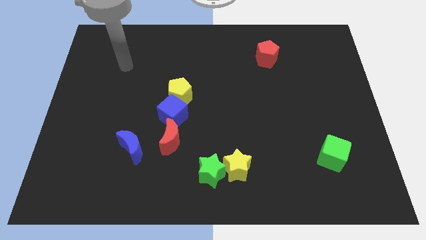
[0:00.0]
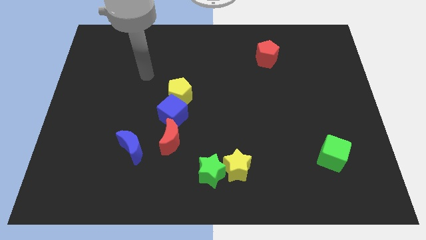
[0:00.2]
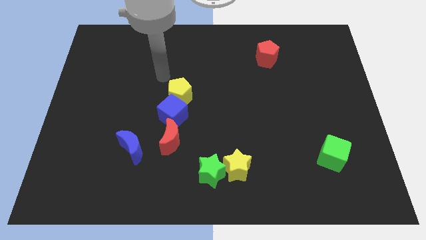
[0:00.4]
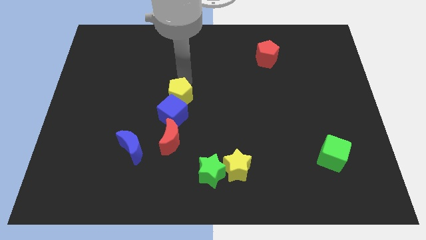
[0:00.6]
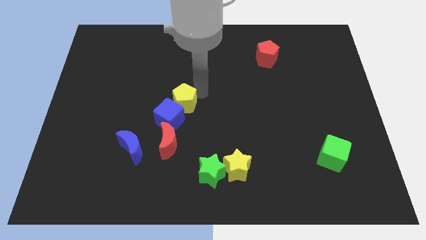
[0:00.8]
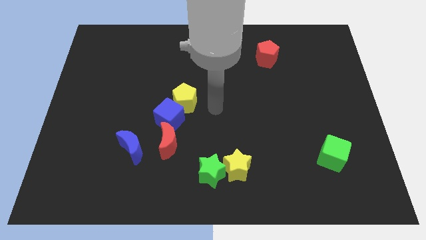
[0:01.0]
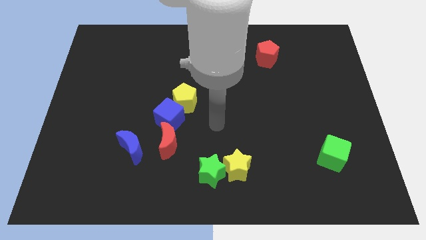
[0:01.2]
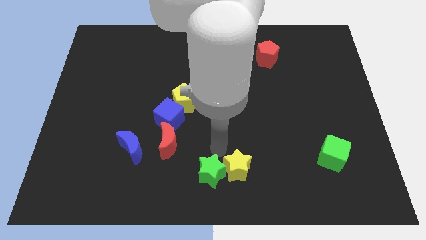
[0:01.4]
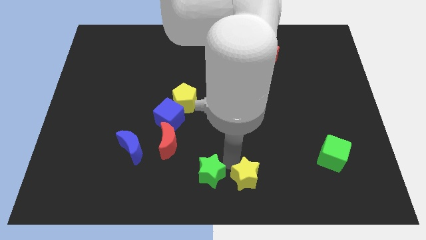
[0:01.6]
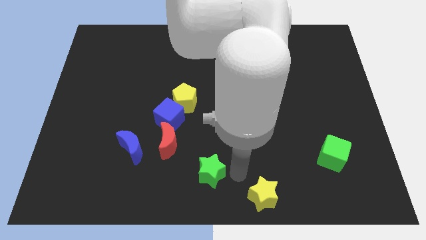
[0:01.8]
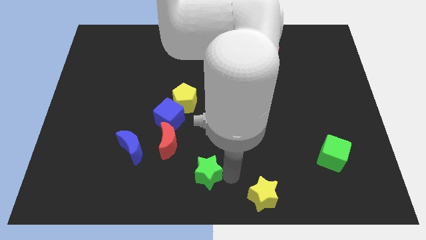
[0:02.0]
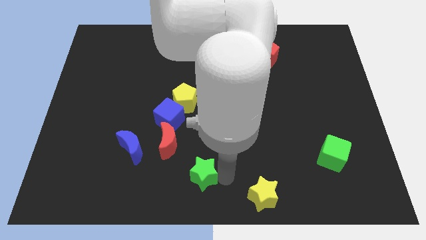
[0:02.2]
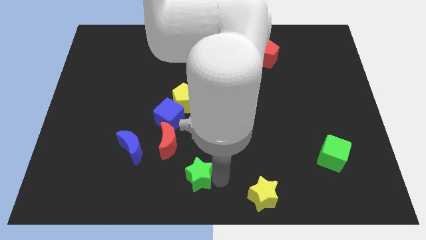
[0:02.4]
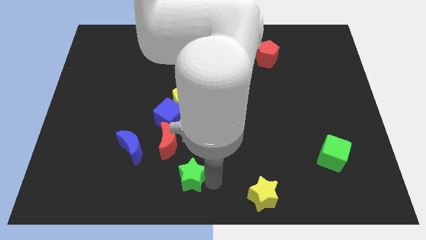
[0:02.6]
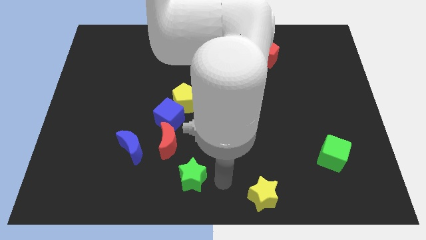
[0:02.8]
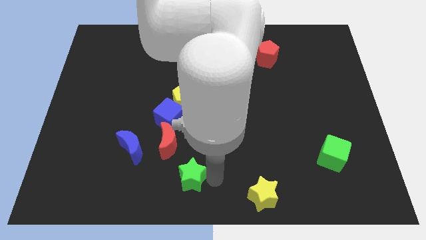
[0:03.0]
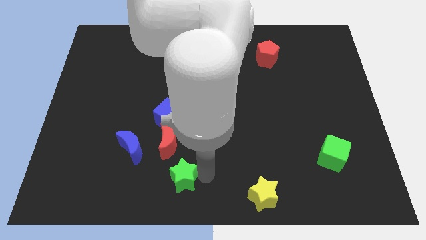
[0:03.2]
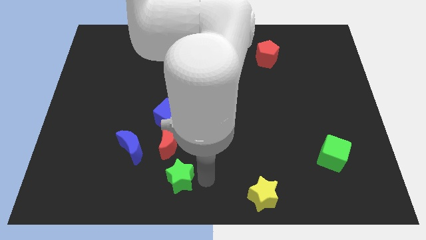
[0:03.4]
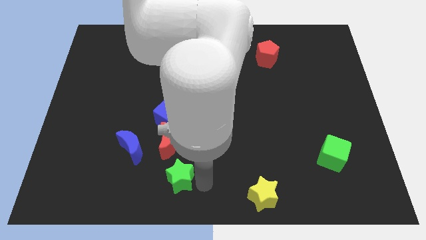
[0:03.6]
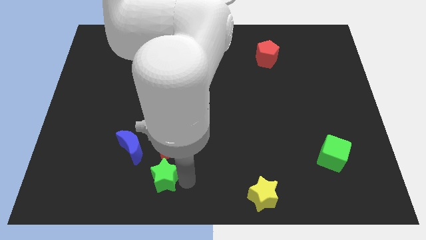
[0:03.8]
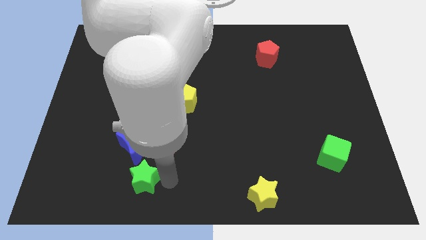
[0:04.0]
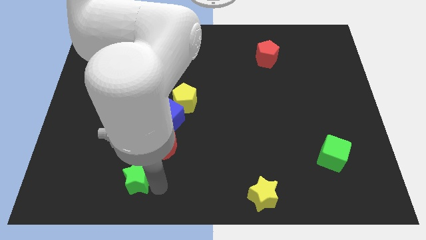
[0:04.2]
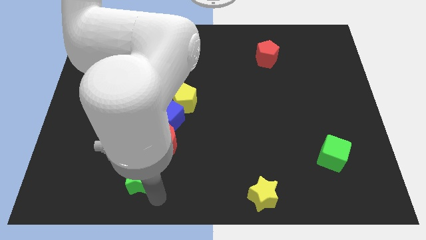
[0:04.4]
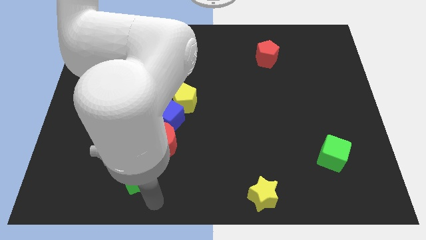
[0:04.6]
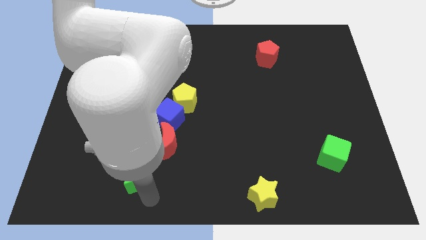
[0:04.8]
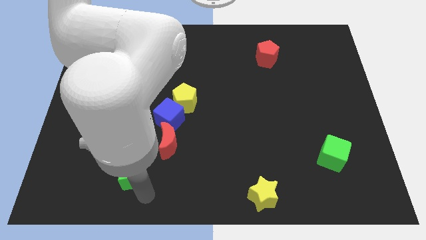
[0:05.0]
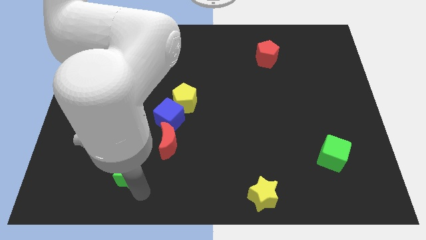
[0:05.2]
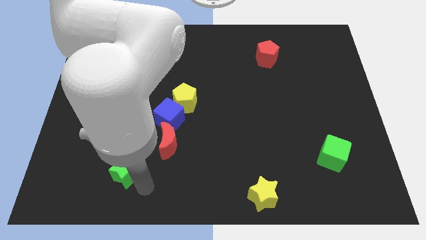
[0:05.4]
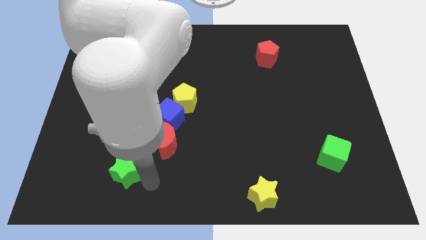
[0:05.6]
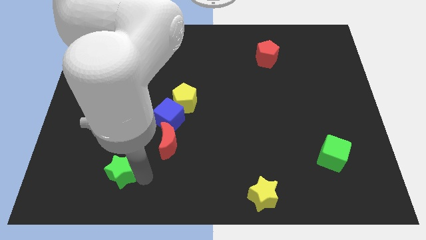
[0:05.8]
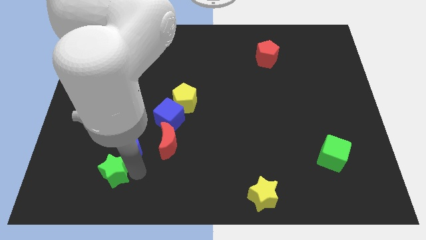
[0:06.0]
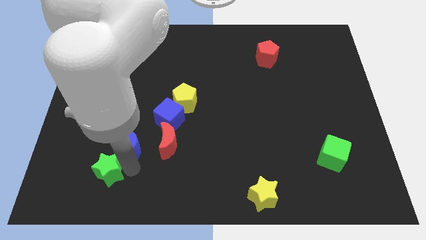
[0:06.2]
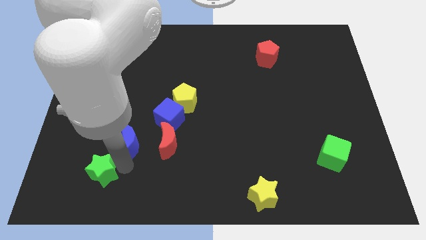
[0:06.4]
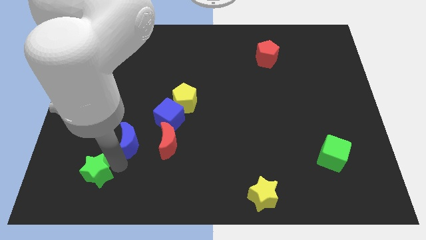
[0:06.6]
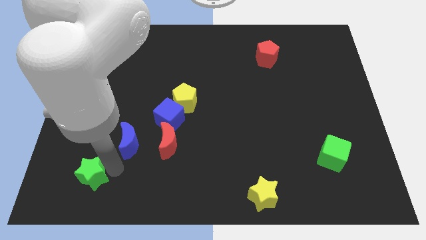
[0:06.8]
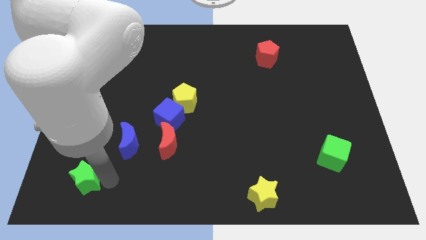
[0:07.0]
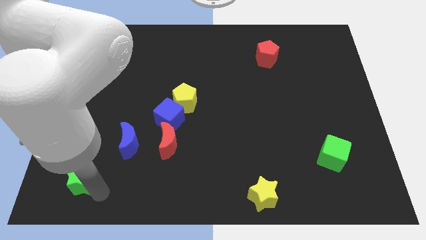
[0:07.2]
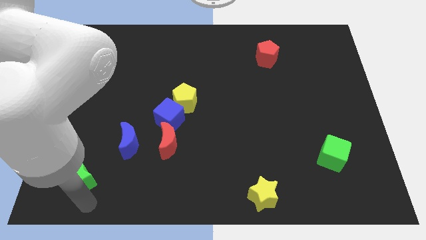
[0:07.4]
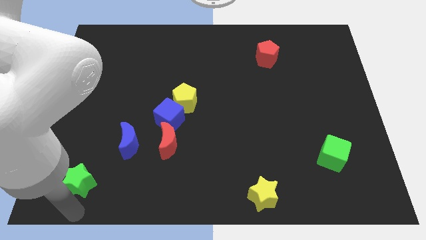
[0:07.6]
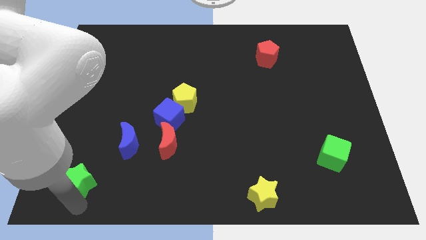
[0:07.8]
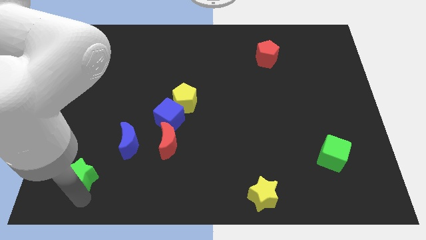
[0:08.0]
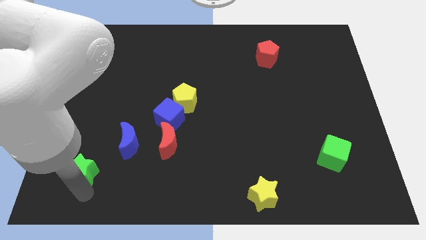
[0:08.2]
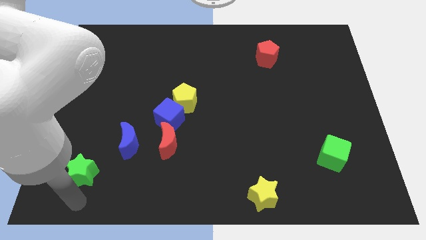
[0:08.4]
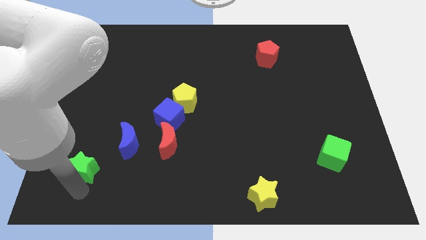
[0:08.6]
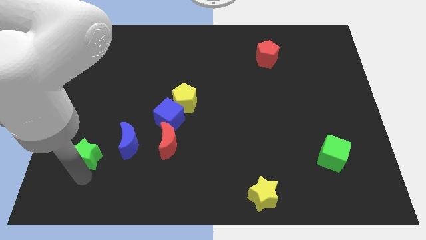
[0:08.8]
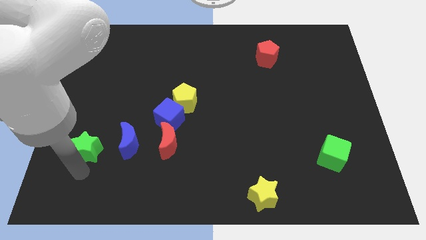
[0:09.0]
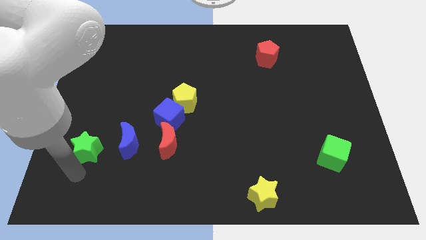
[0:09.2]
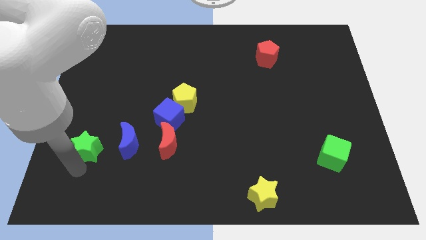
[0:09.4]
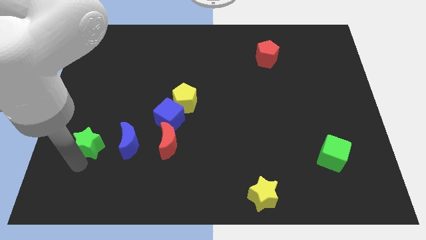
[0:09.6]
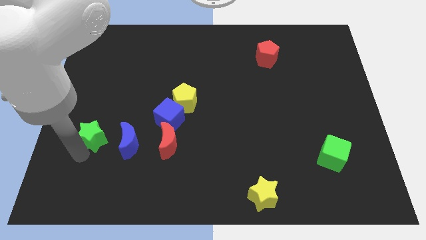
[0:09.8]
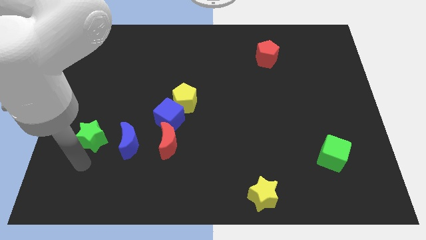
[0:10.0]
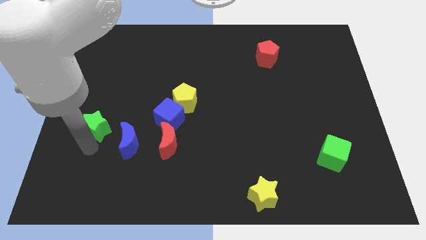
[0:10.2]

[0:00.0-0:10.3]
push the green star upwards and then to the left

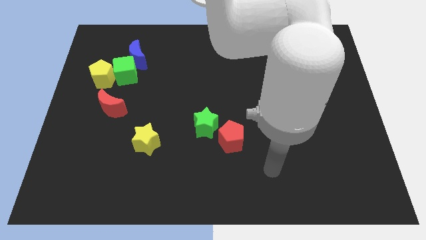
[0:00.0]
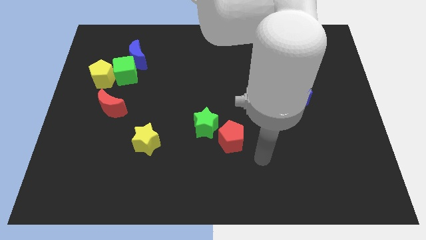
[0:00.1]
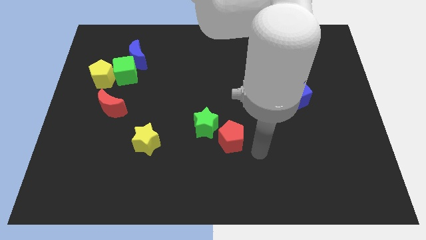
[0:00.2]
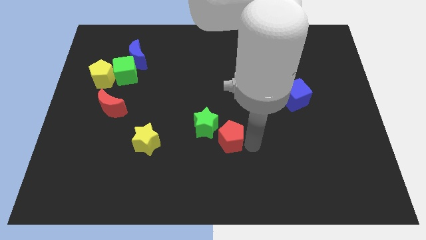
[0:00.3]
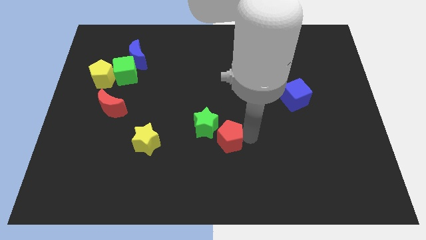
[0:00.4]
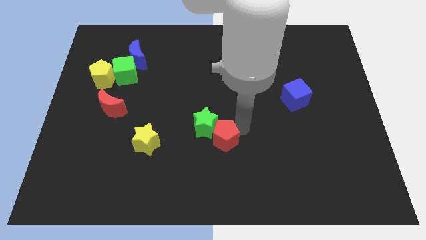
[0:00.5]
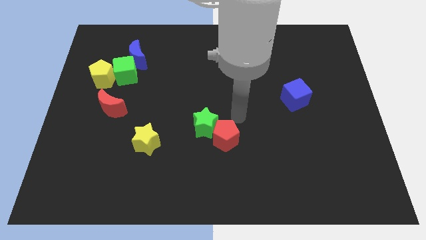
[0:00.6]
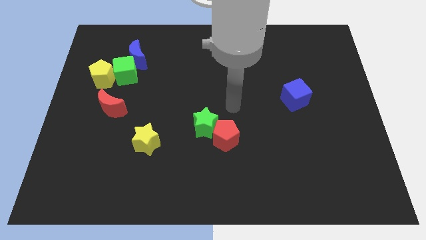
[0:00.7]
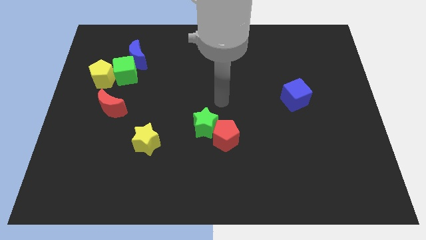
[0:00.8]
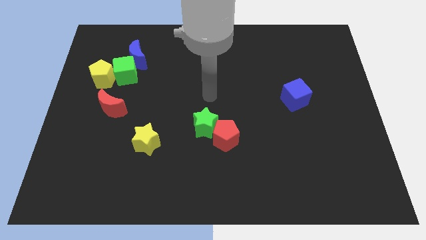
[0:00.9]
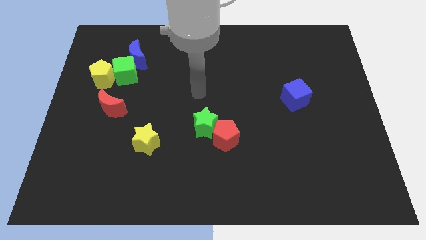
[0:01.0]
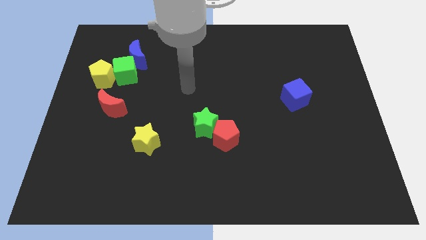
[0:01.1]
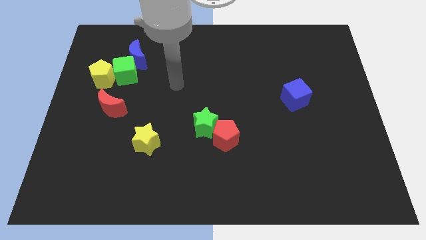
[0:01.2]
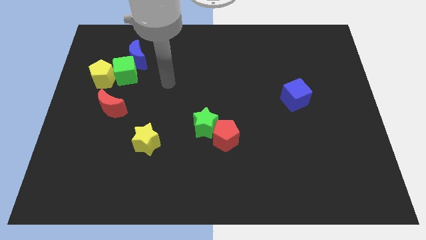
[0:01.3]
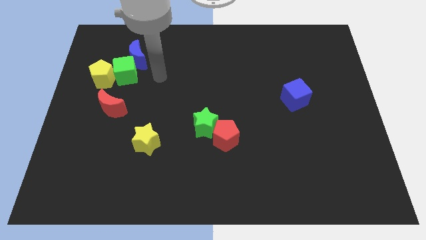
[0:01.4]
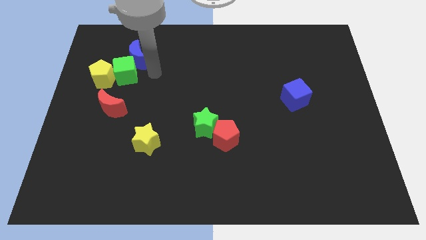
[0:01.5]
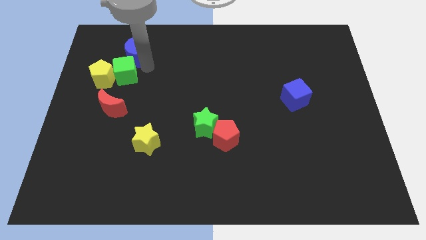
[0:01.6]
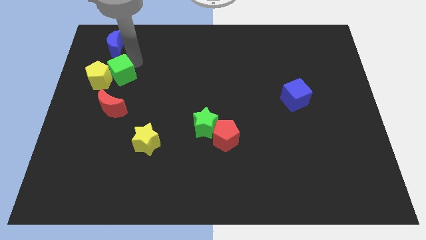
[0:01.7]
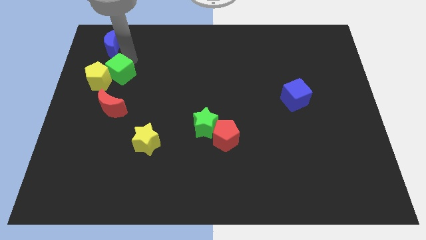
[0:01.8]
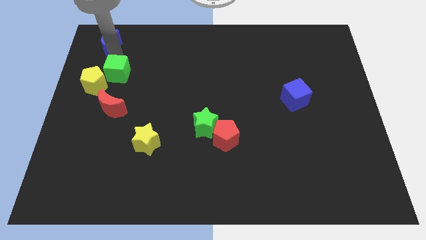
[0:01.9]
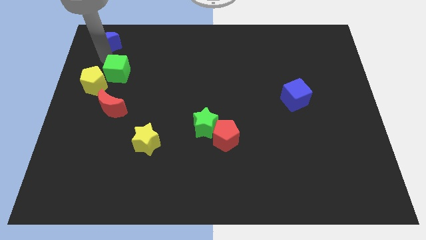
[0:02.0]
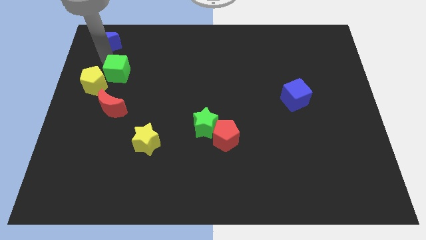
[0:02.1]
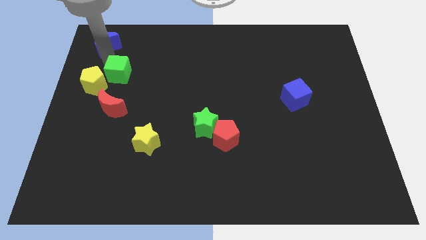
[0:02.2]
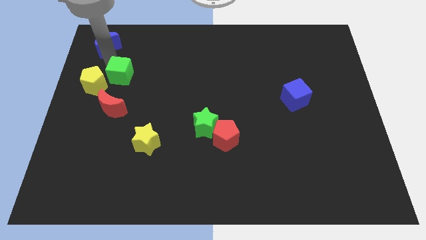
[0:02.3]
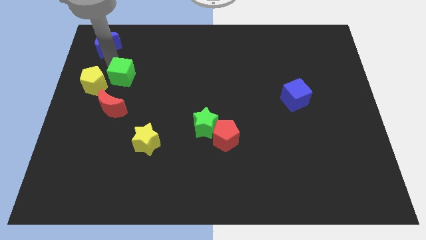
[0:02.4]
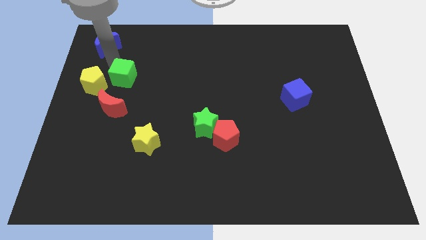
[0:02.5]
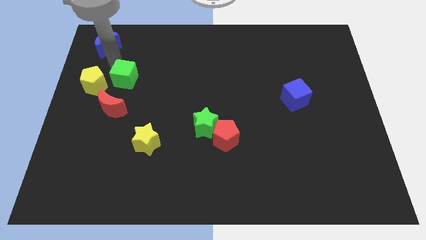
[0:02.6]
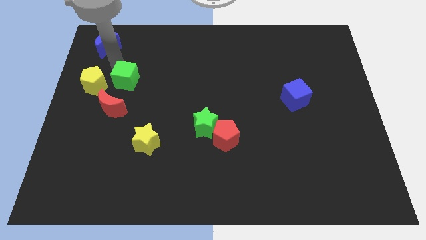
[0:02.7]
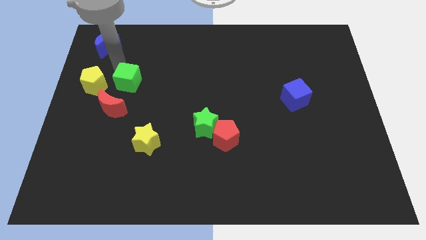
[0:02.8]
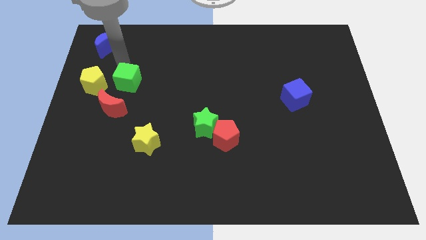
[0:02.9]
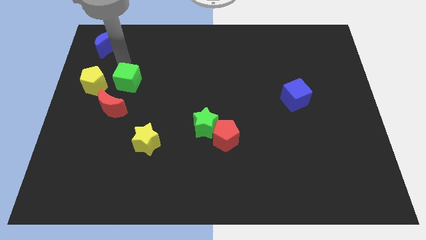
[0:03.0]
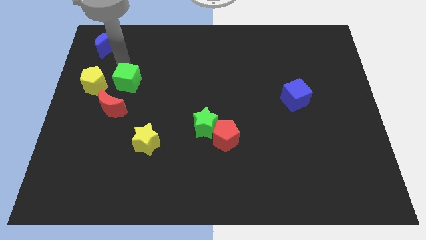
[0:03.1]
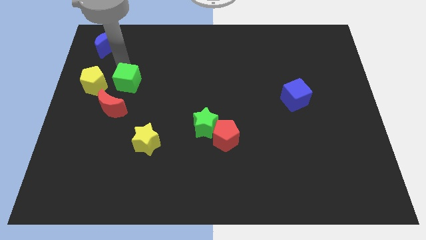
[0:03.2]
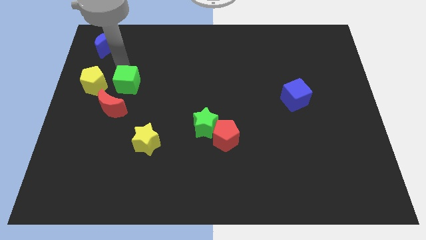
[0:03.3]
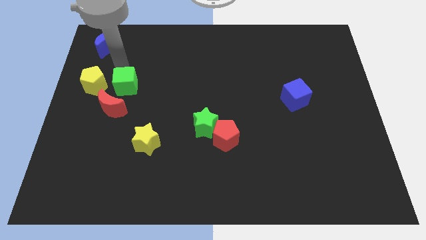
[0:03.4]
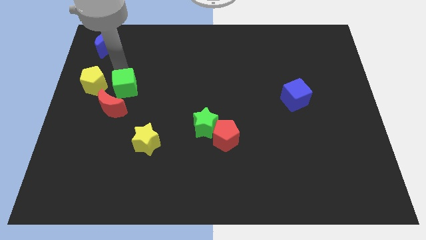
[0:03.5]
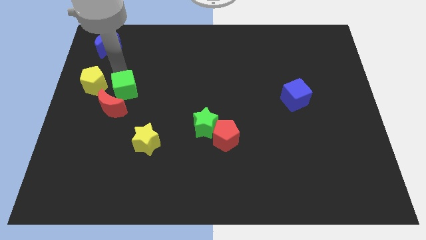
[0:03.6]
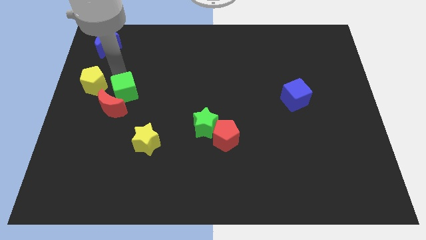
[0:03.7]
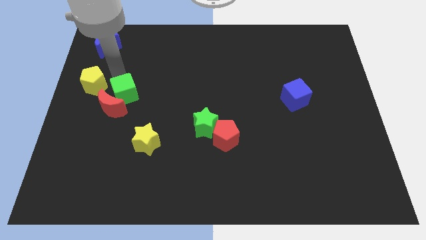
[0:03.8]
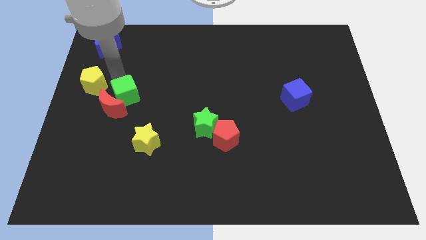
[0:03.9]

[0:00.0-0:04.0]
push the green cube downwards a little bit
